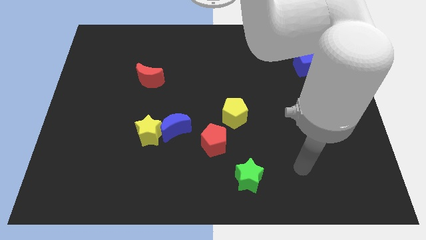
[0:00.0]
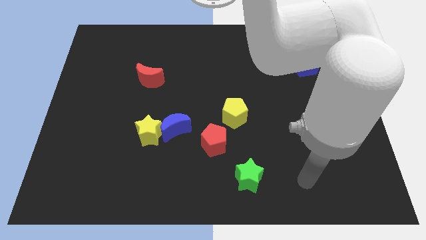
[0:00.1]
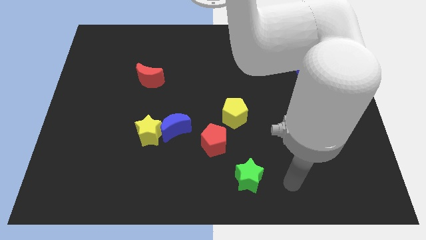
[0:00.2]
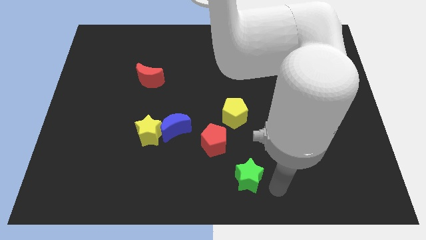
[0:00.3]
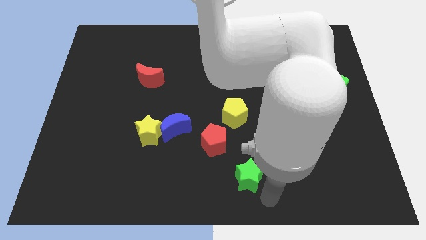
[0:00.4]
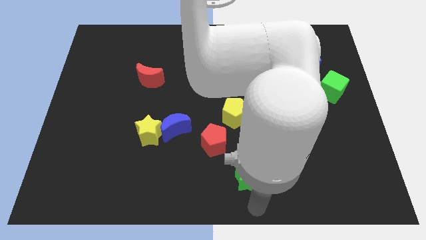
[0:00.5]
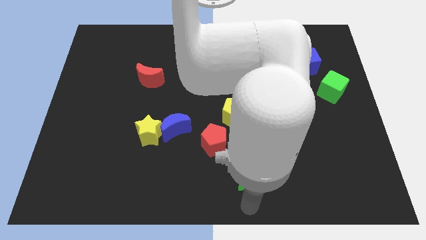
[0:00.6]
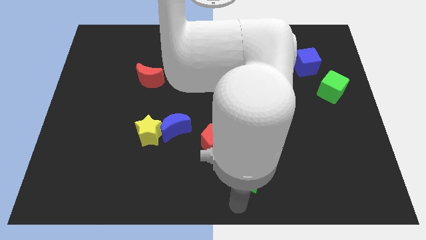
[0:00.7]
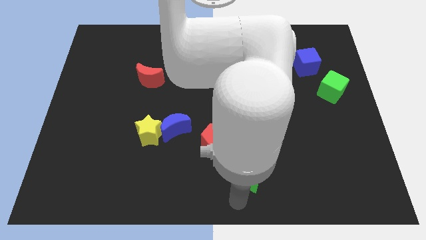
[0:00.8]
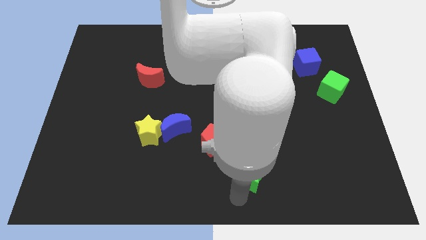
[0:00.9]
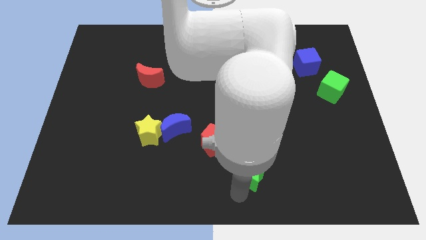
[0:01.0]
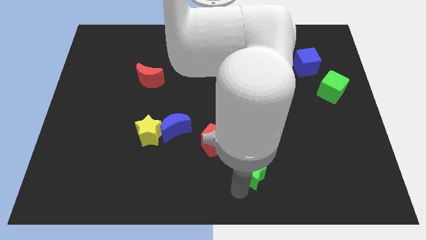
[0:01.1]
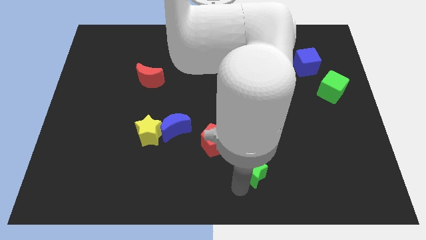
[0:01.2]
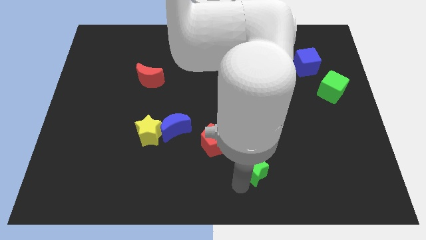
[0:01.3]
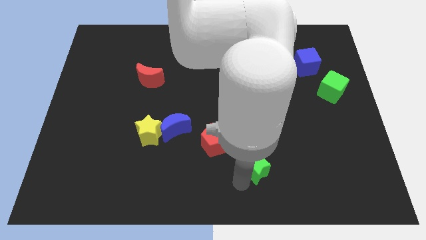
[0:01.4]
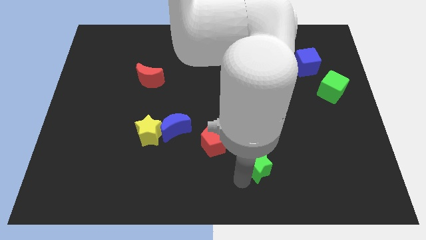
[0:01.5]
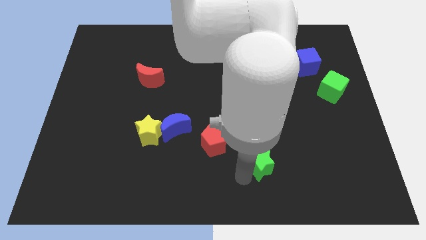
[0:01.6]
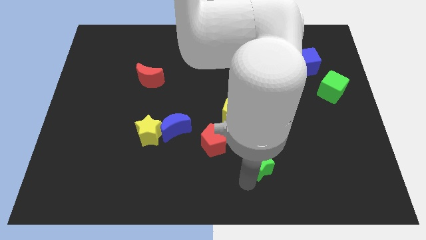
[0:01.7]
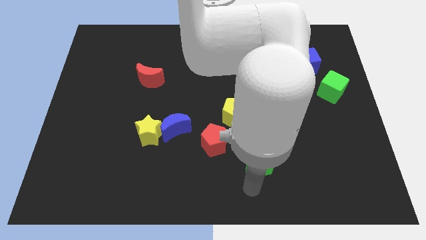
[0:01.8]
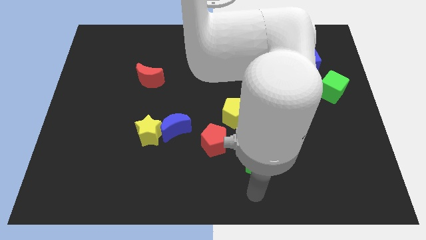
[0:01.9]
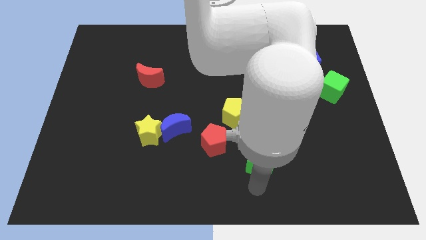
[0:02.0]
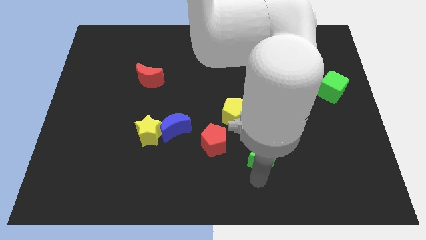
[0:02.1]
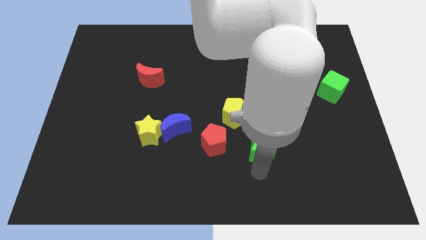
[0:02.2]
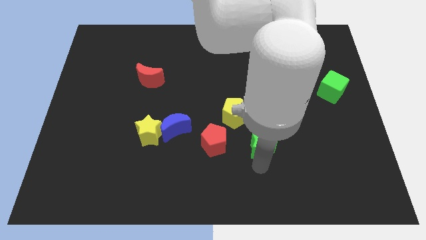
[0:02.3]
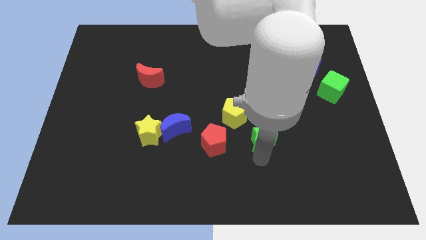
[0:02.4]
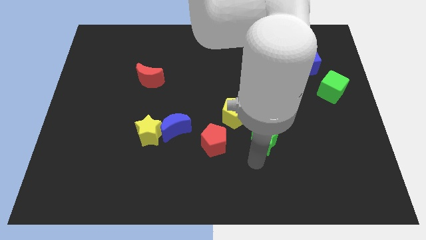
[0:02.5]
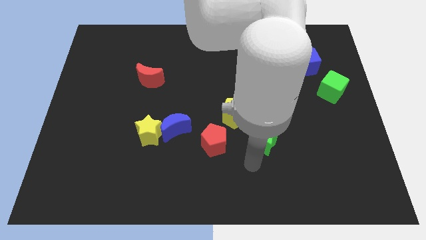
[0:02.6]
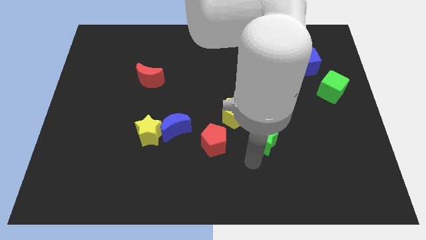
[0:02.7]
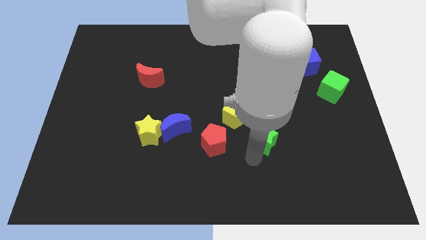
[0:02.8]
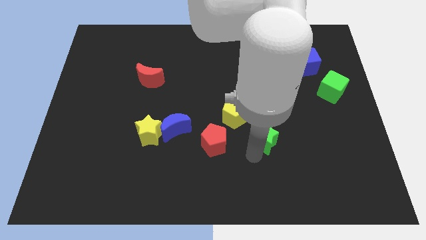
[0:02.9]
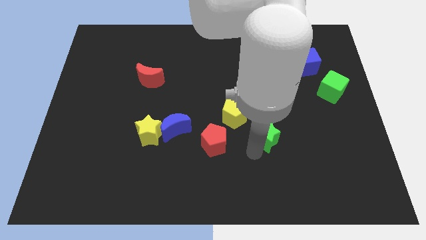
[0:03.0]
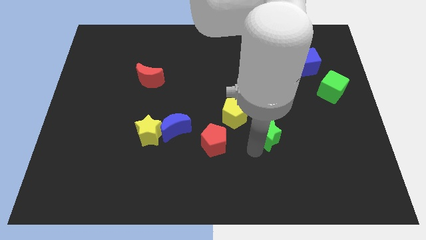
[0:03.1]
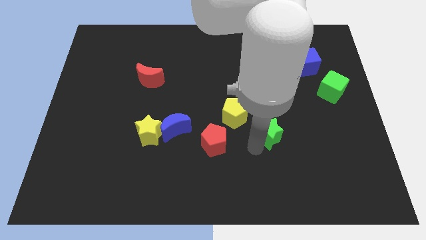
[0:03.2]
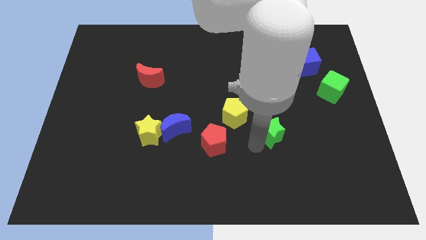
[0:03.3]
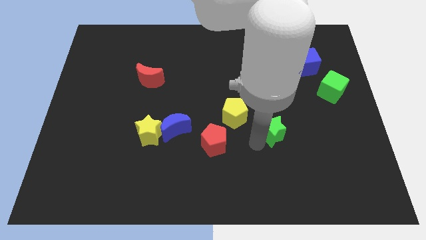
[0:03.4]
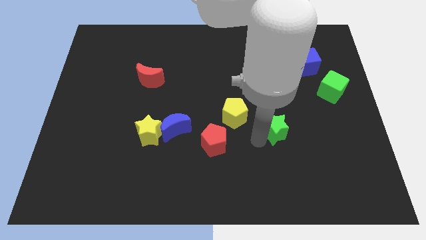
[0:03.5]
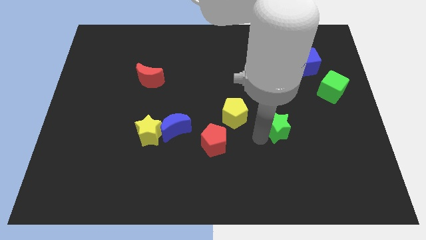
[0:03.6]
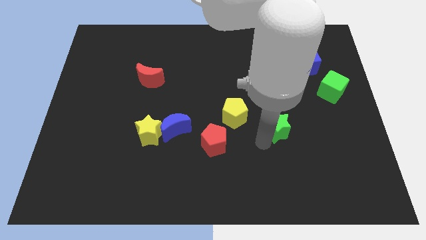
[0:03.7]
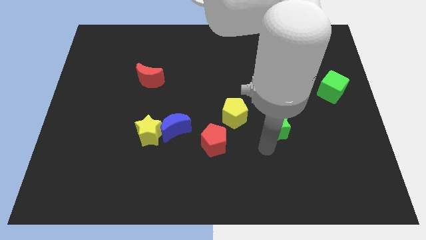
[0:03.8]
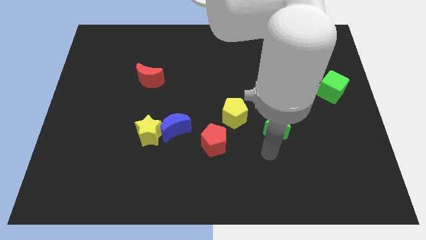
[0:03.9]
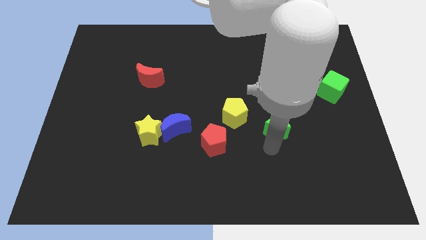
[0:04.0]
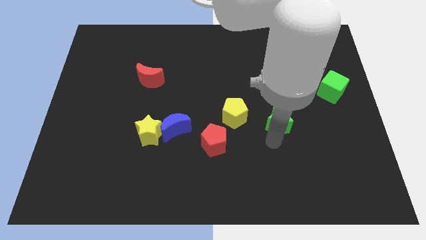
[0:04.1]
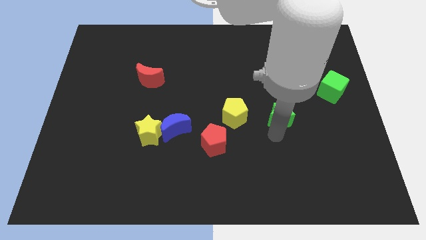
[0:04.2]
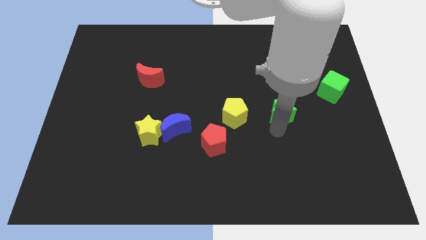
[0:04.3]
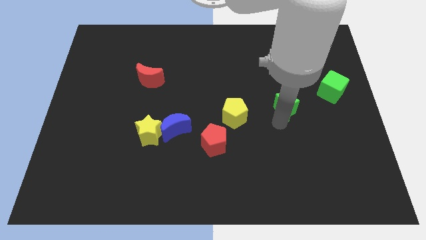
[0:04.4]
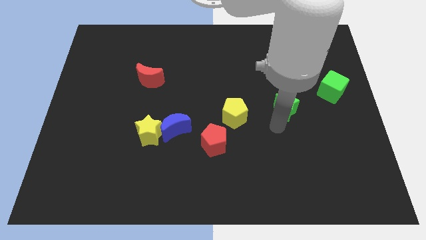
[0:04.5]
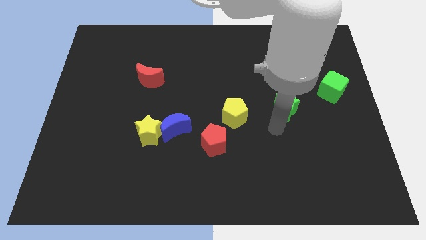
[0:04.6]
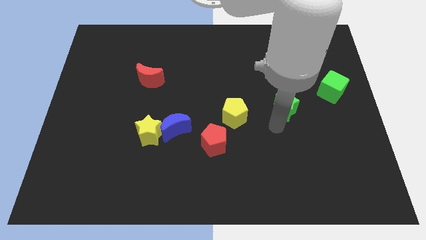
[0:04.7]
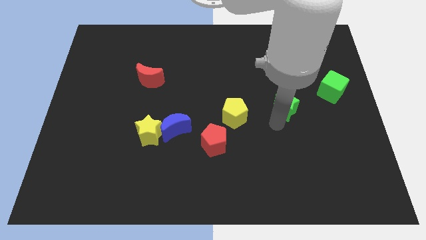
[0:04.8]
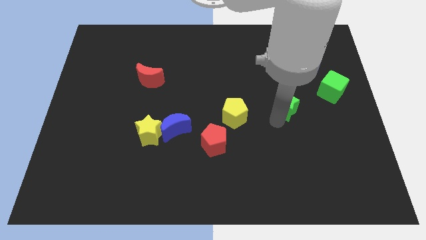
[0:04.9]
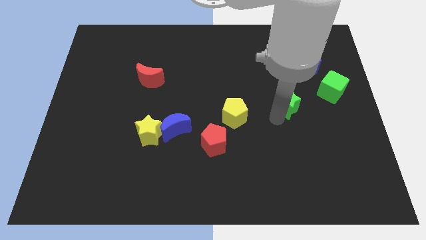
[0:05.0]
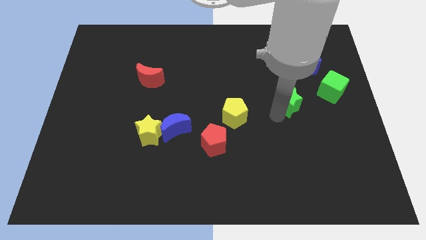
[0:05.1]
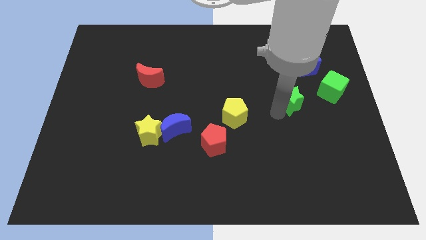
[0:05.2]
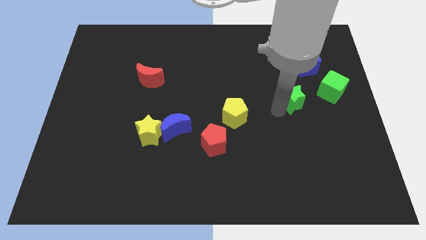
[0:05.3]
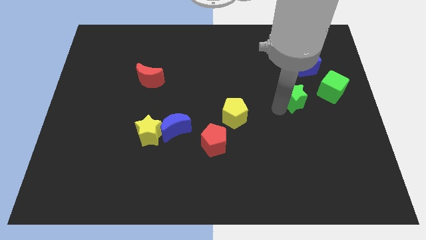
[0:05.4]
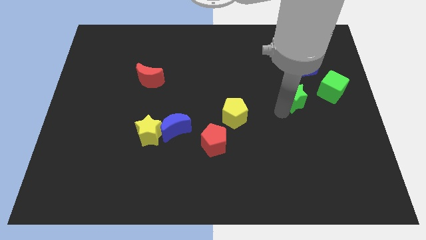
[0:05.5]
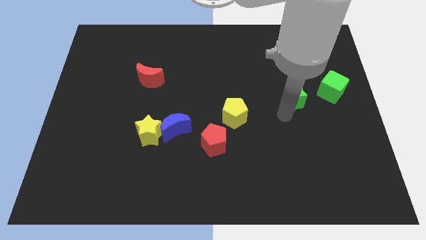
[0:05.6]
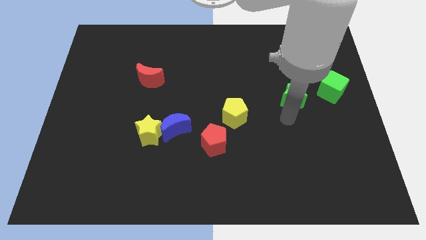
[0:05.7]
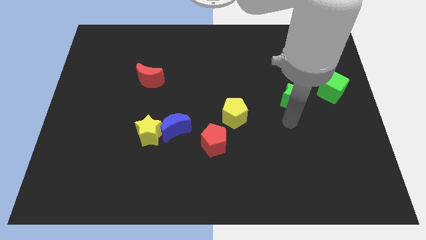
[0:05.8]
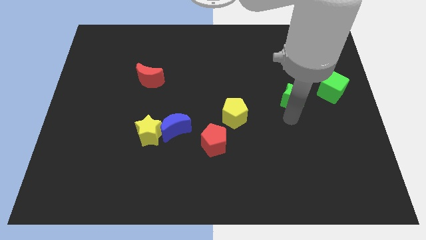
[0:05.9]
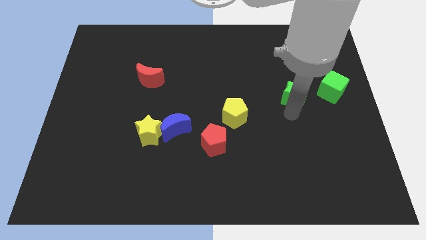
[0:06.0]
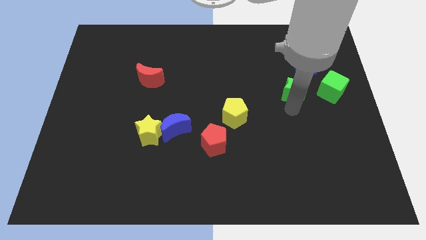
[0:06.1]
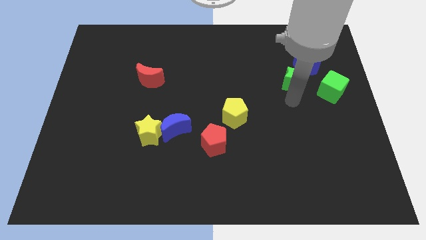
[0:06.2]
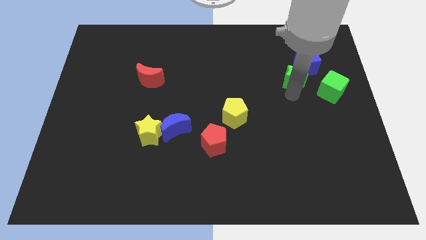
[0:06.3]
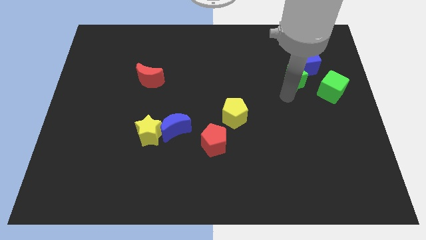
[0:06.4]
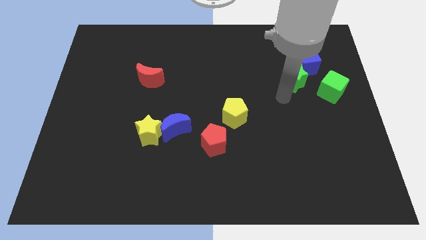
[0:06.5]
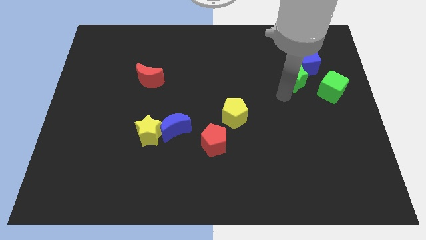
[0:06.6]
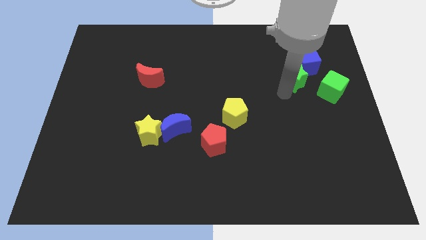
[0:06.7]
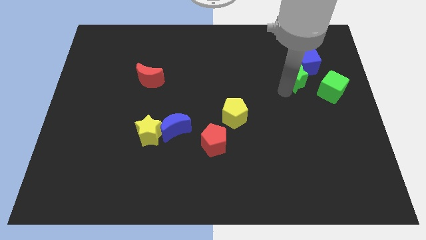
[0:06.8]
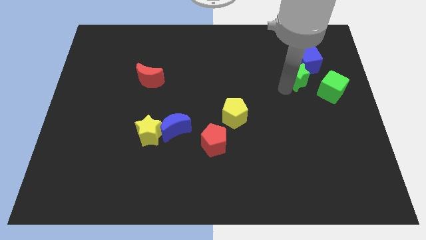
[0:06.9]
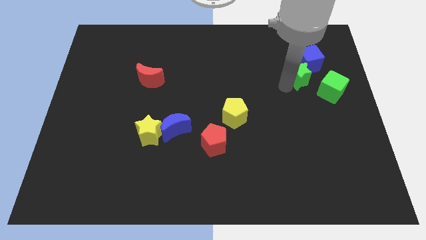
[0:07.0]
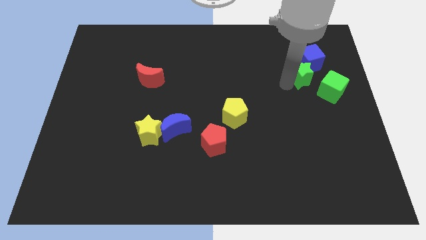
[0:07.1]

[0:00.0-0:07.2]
push the green star towards the blue cube

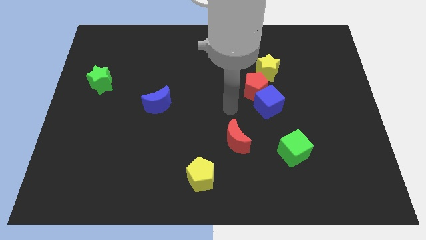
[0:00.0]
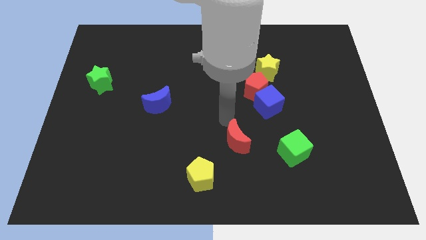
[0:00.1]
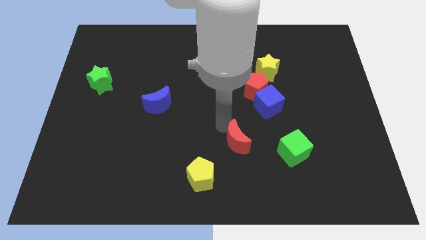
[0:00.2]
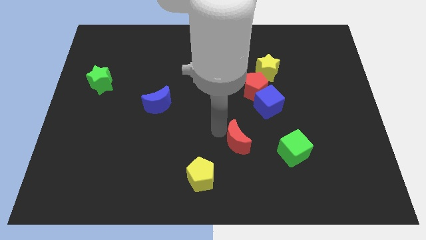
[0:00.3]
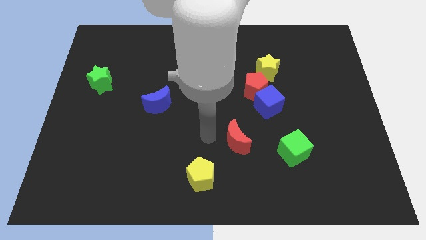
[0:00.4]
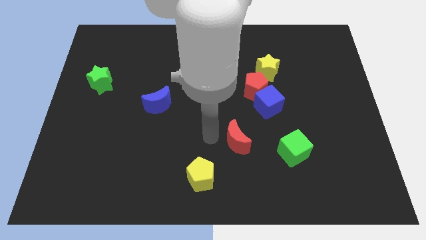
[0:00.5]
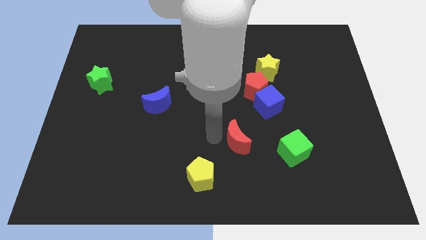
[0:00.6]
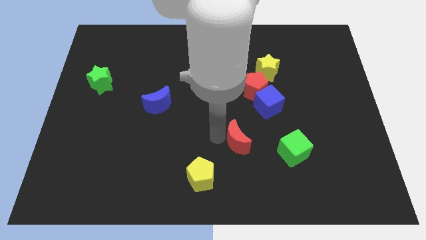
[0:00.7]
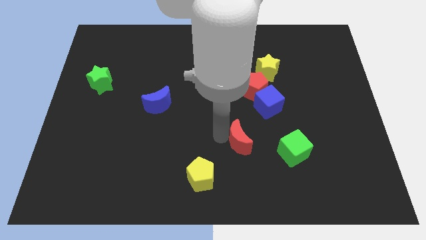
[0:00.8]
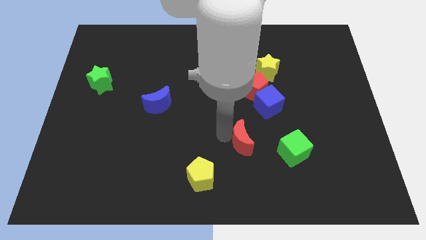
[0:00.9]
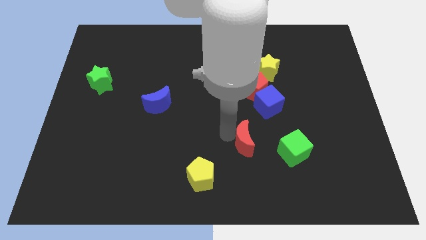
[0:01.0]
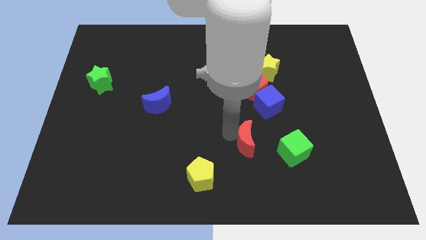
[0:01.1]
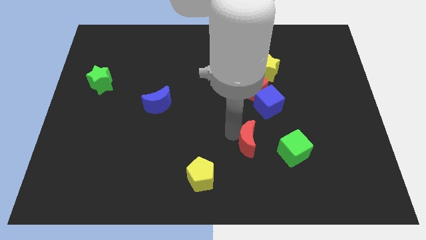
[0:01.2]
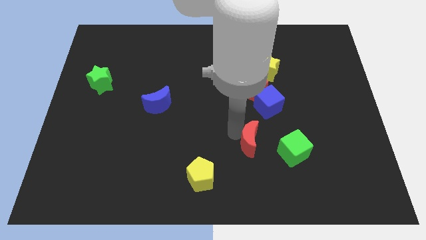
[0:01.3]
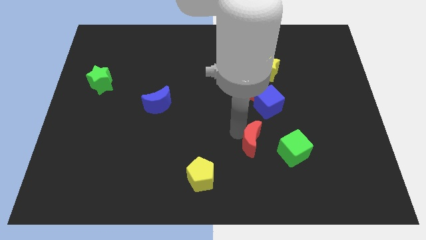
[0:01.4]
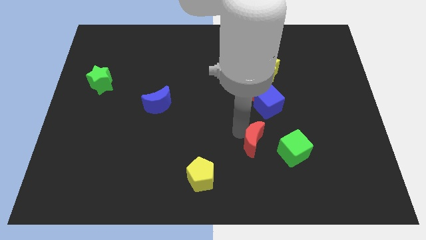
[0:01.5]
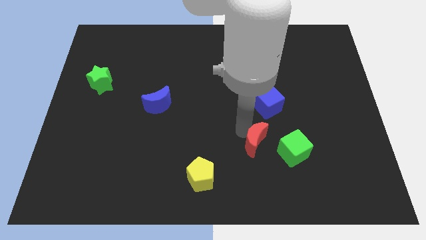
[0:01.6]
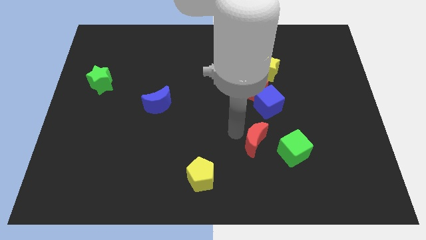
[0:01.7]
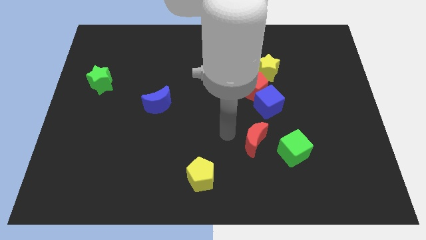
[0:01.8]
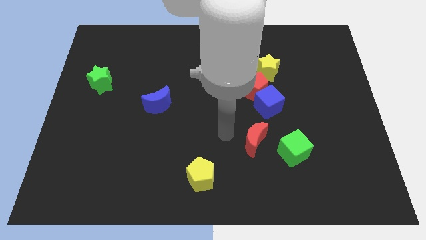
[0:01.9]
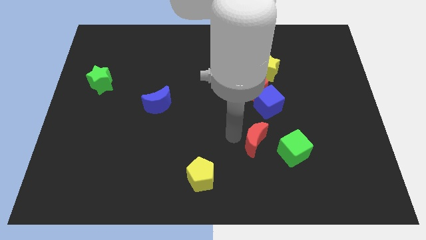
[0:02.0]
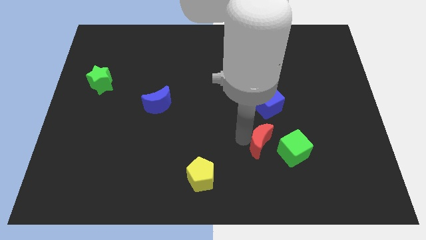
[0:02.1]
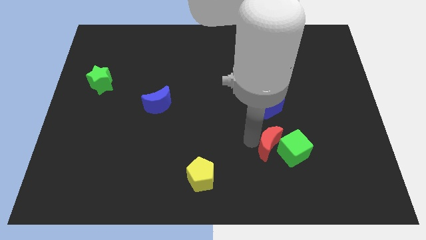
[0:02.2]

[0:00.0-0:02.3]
move the red moon next to the green cube
